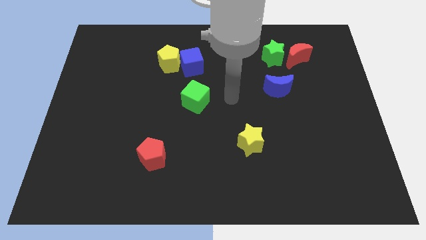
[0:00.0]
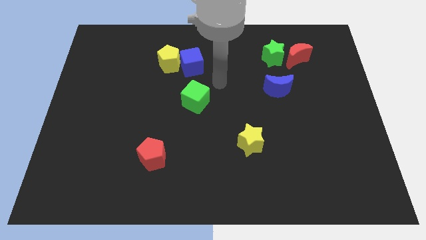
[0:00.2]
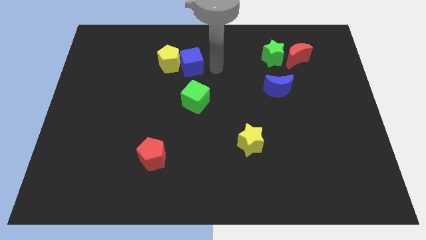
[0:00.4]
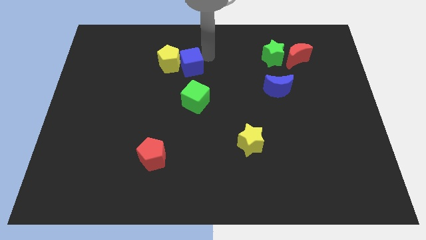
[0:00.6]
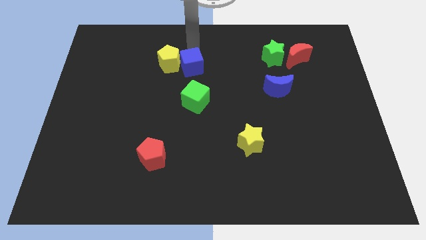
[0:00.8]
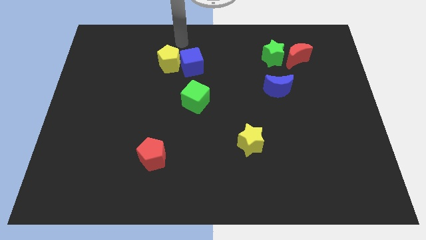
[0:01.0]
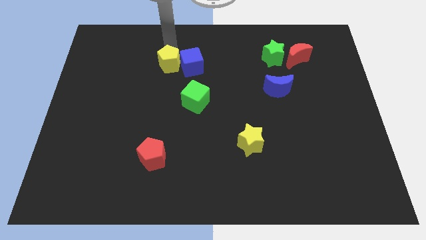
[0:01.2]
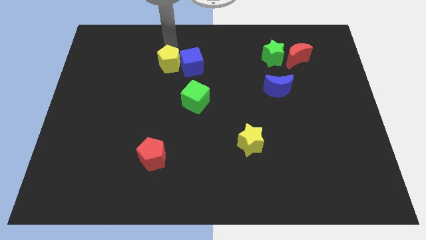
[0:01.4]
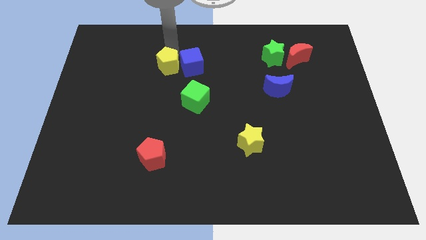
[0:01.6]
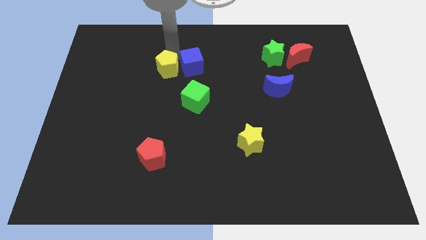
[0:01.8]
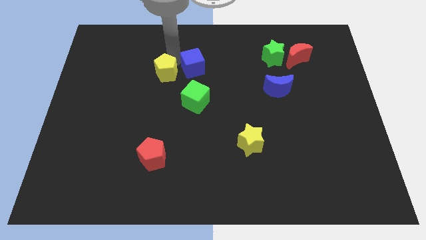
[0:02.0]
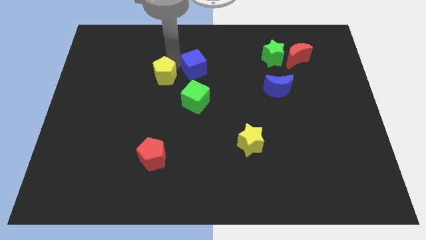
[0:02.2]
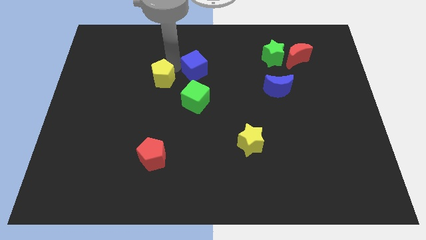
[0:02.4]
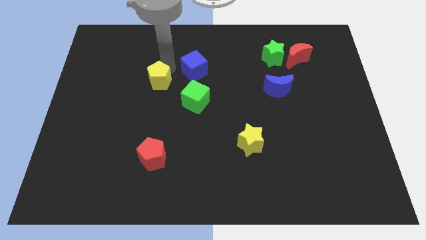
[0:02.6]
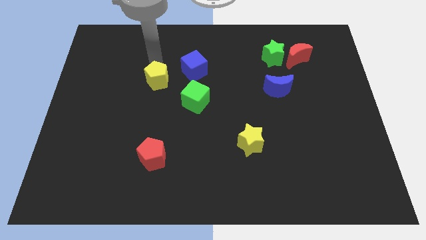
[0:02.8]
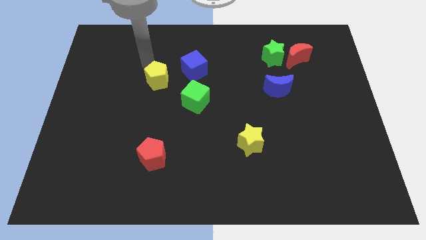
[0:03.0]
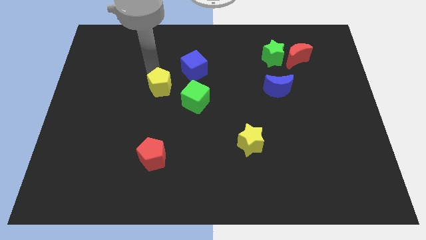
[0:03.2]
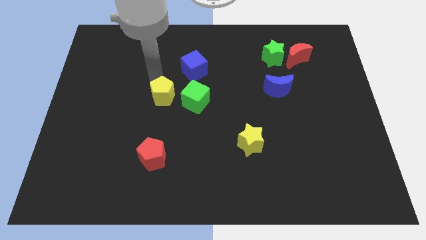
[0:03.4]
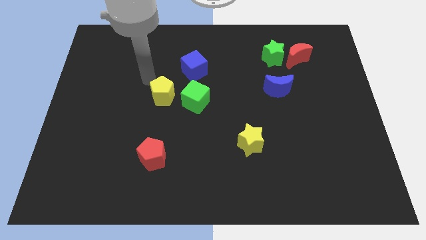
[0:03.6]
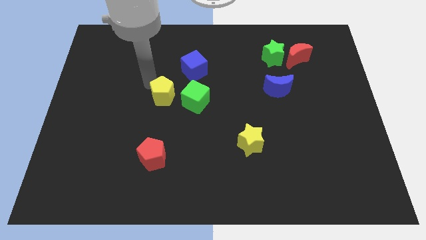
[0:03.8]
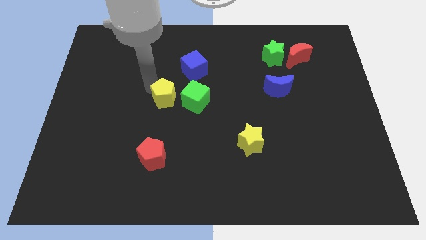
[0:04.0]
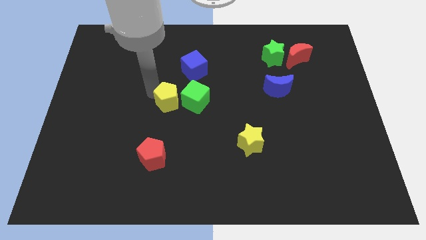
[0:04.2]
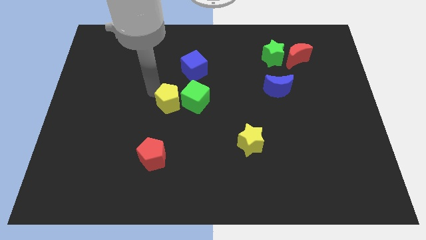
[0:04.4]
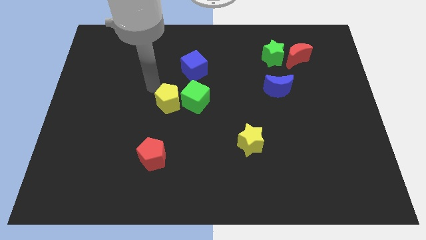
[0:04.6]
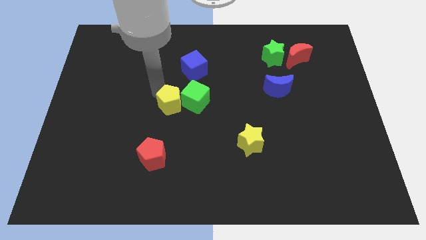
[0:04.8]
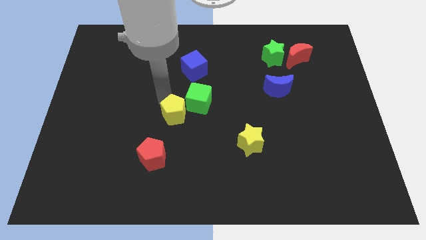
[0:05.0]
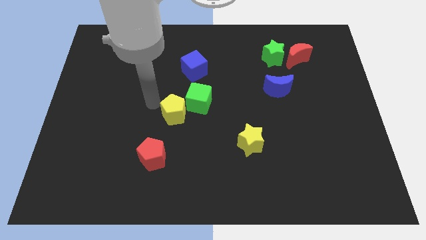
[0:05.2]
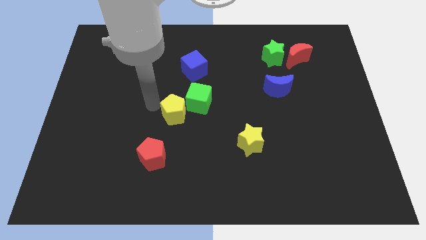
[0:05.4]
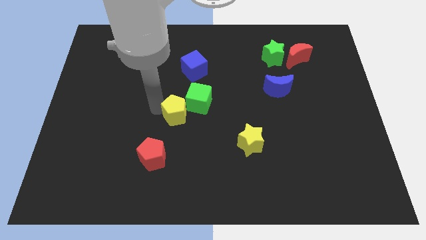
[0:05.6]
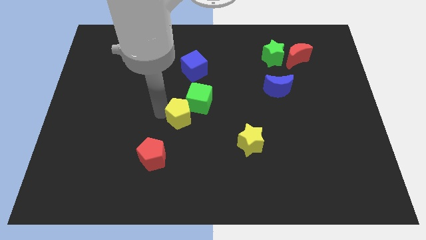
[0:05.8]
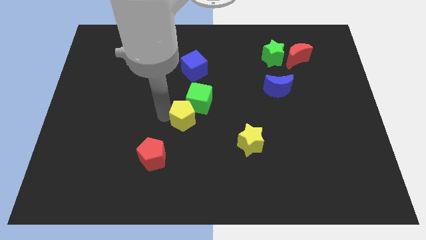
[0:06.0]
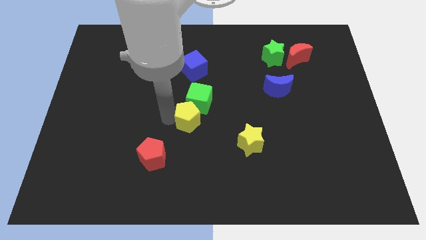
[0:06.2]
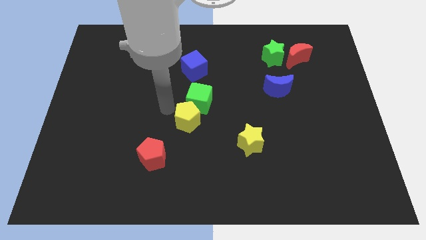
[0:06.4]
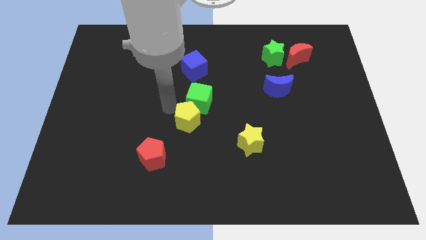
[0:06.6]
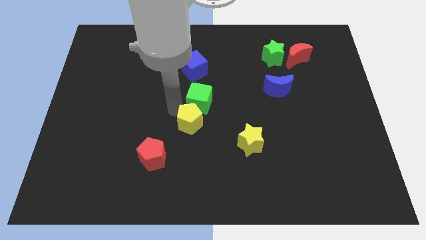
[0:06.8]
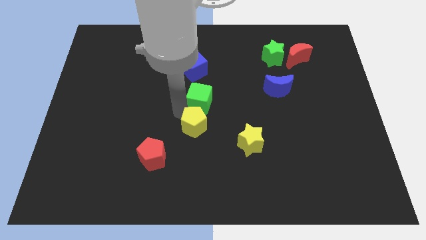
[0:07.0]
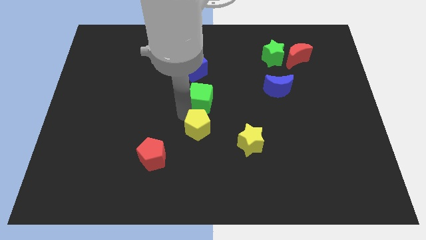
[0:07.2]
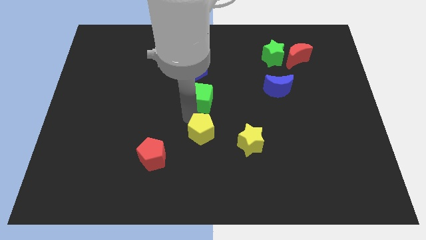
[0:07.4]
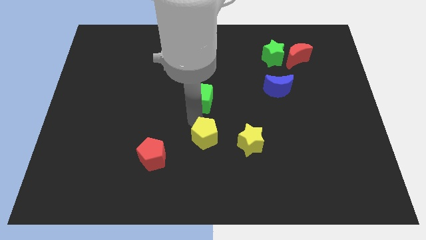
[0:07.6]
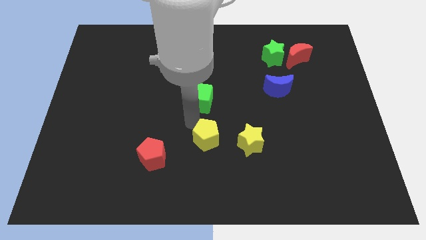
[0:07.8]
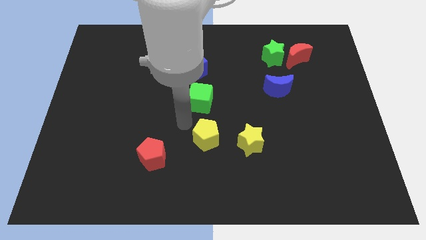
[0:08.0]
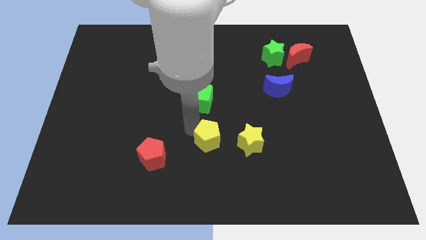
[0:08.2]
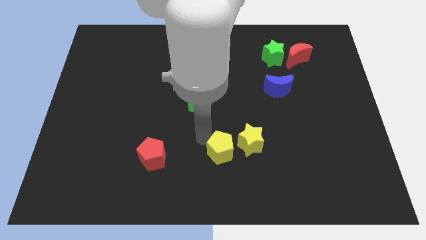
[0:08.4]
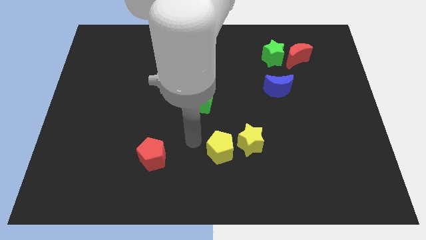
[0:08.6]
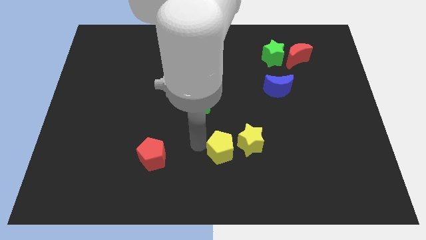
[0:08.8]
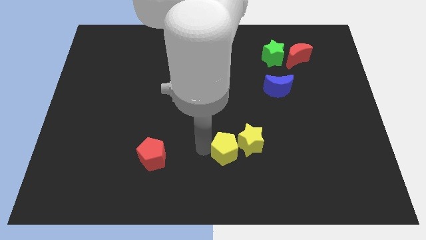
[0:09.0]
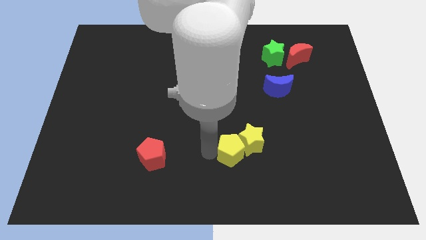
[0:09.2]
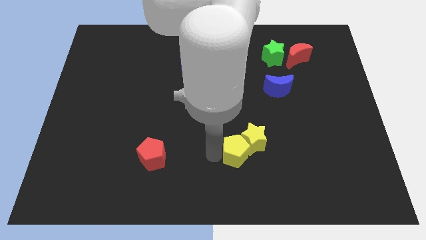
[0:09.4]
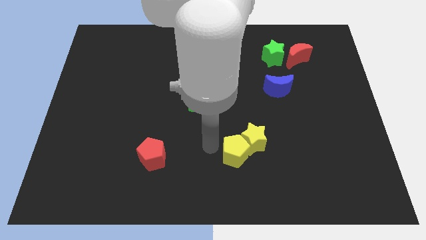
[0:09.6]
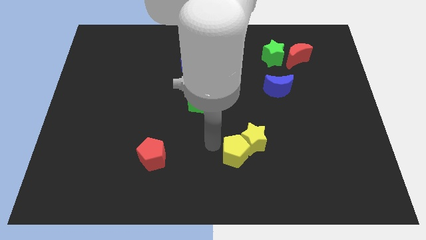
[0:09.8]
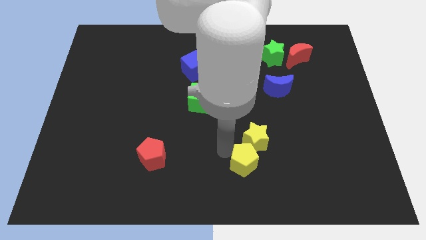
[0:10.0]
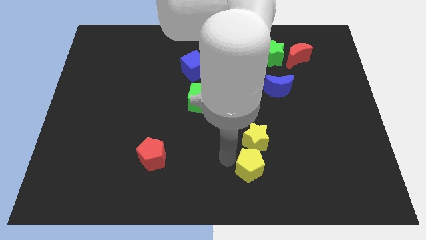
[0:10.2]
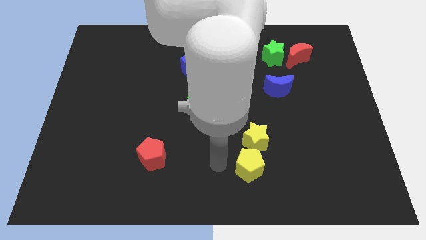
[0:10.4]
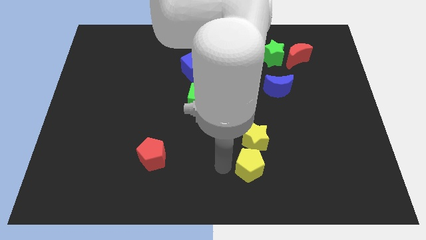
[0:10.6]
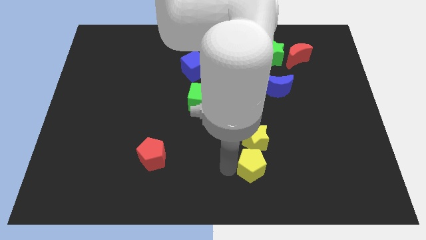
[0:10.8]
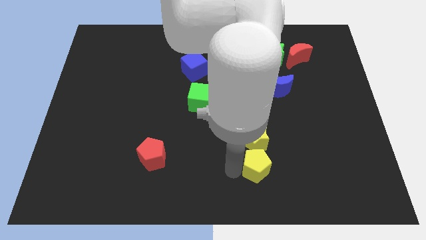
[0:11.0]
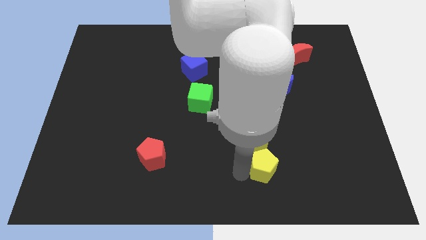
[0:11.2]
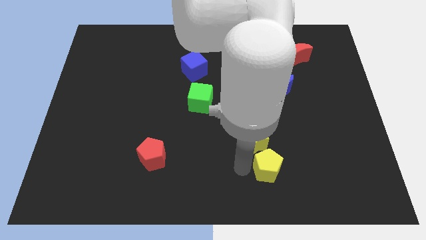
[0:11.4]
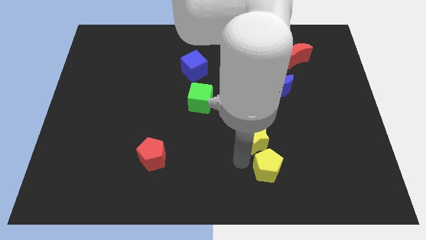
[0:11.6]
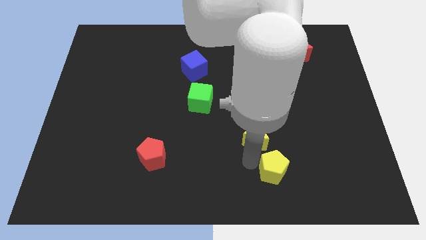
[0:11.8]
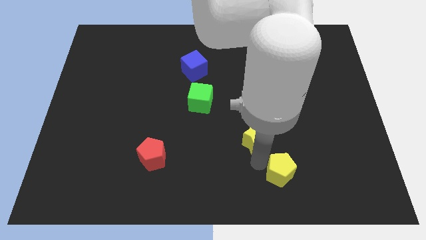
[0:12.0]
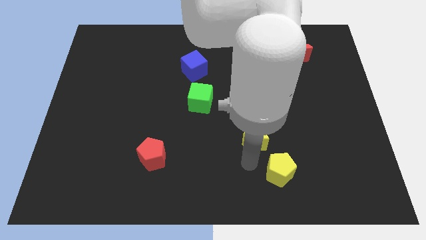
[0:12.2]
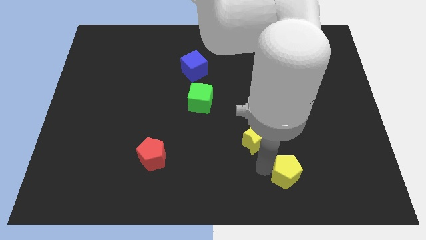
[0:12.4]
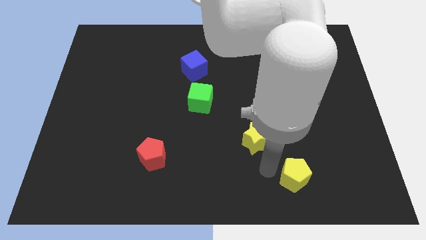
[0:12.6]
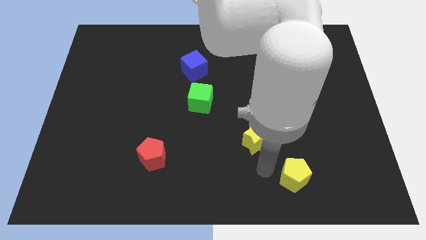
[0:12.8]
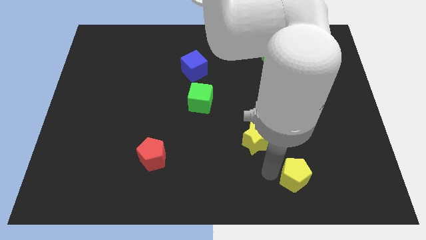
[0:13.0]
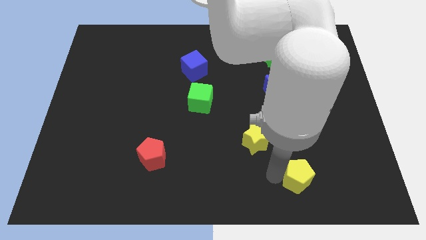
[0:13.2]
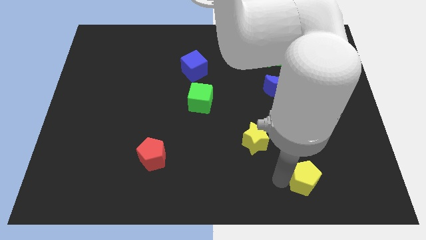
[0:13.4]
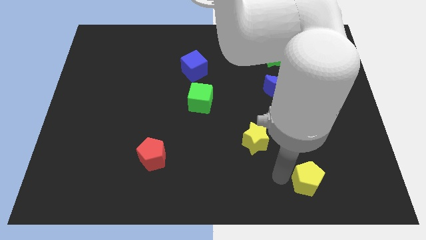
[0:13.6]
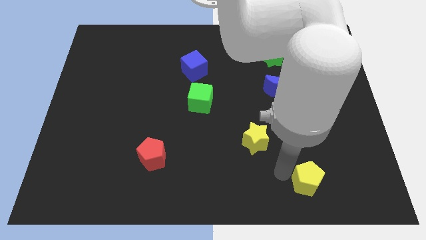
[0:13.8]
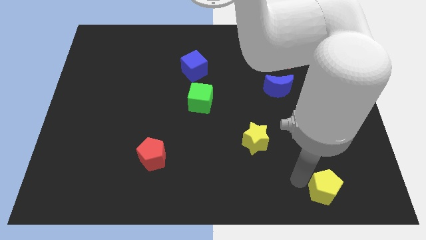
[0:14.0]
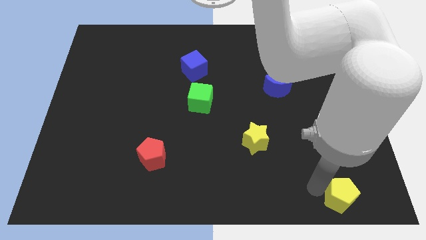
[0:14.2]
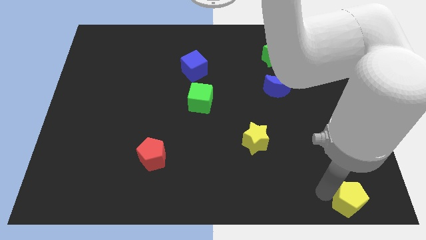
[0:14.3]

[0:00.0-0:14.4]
put the yellow pentagon to the bottom right

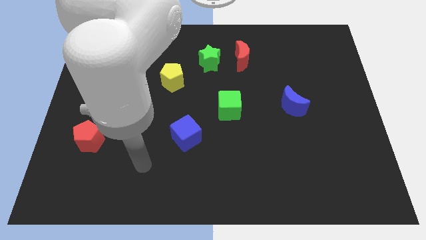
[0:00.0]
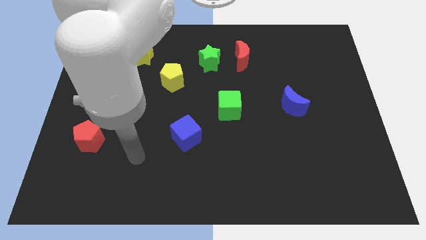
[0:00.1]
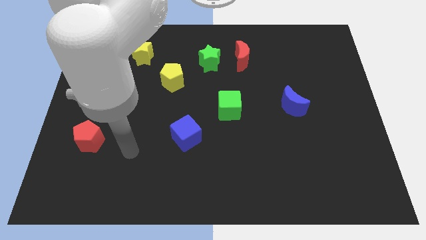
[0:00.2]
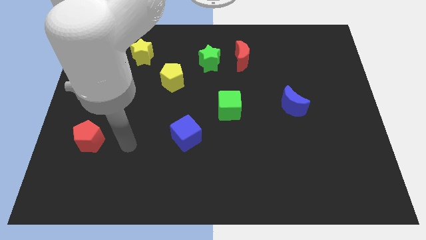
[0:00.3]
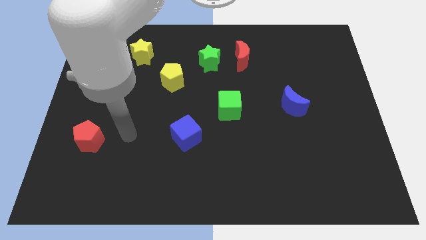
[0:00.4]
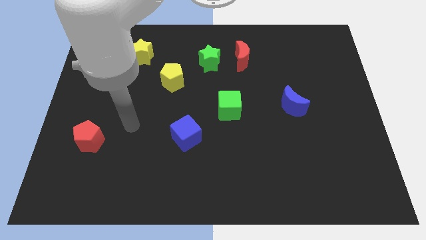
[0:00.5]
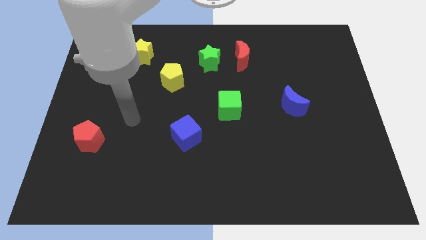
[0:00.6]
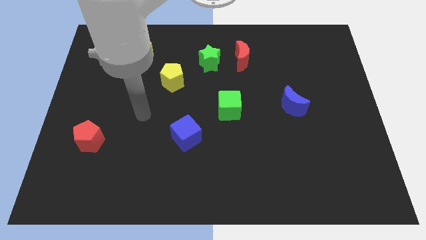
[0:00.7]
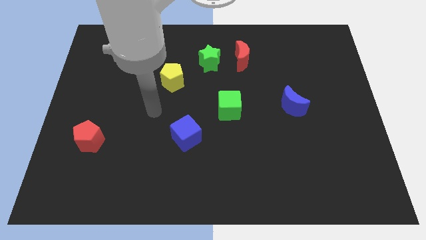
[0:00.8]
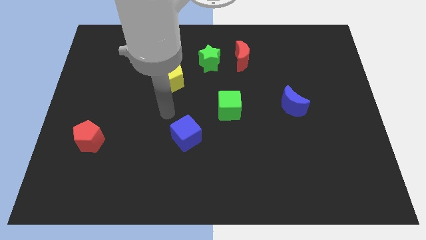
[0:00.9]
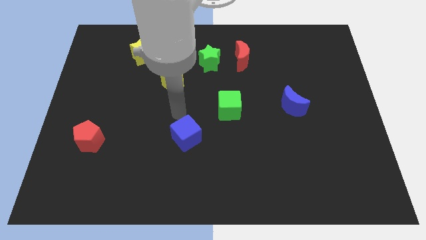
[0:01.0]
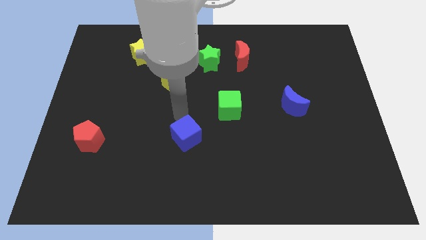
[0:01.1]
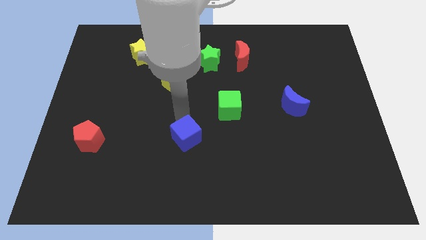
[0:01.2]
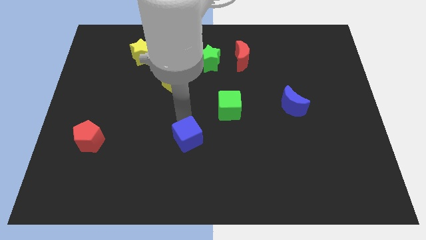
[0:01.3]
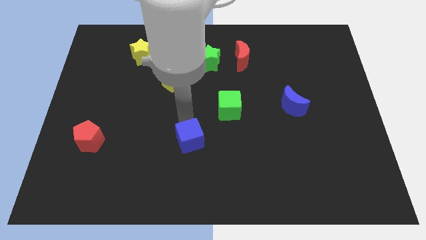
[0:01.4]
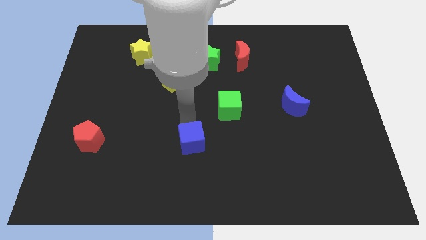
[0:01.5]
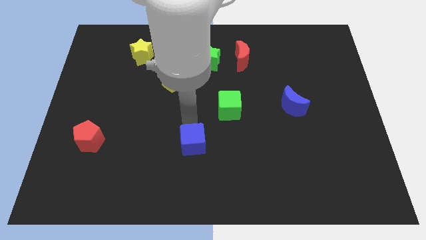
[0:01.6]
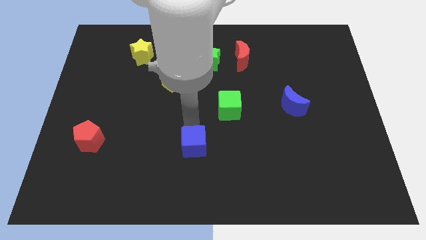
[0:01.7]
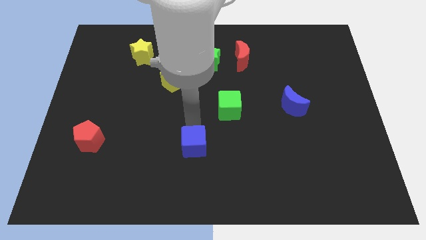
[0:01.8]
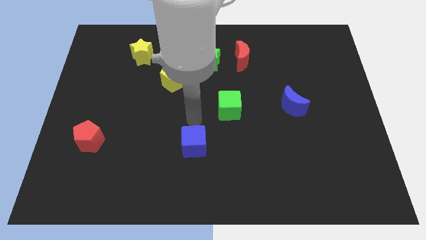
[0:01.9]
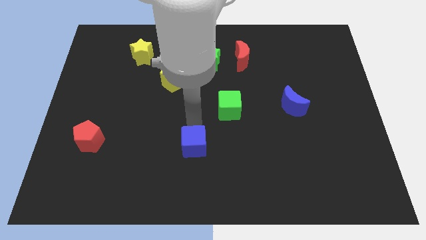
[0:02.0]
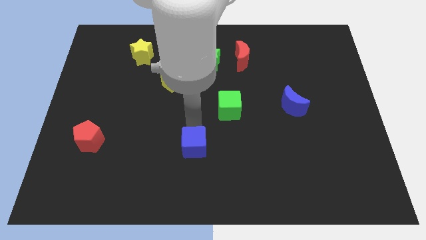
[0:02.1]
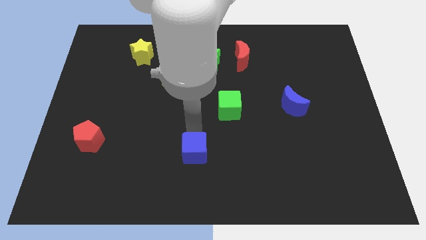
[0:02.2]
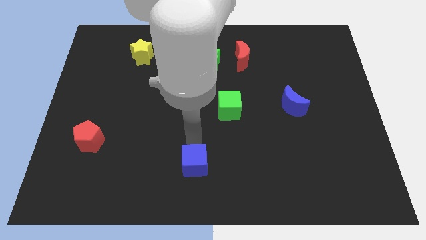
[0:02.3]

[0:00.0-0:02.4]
move the blue cube to the bottom side
